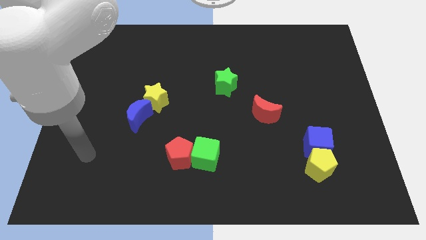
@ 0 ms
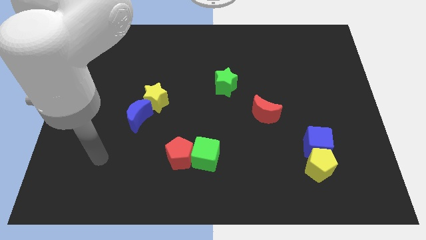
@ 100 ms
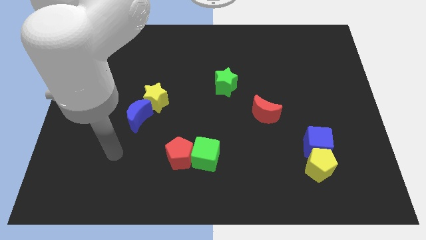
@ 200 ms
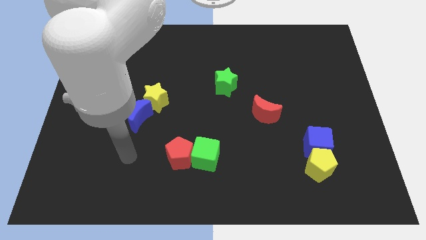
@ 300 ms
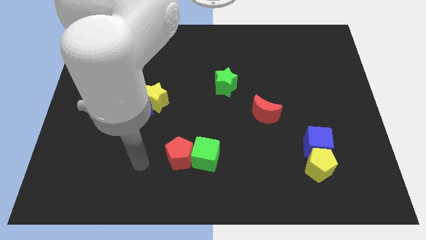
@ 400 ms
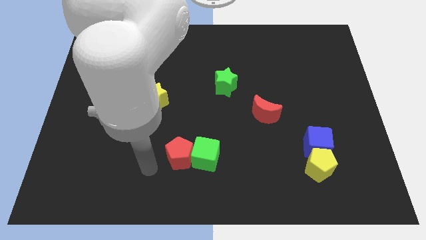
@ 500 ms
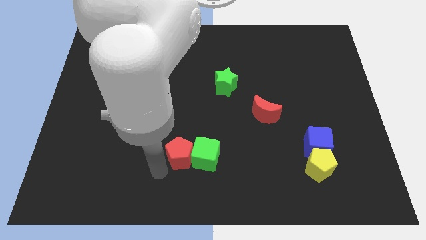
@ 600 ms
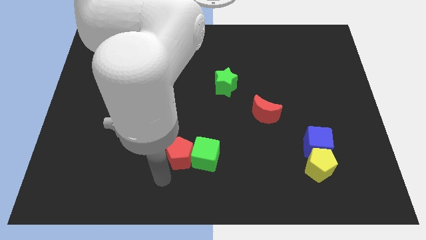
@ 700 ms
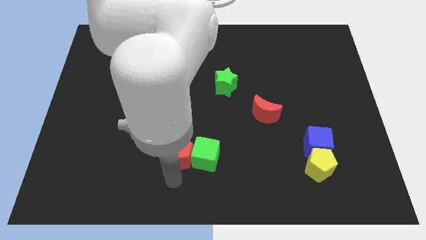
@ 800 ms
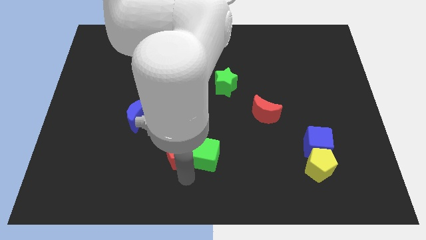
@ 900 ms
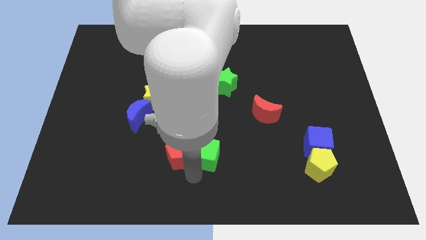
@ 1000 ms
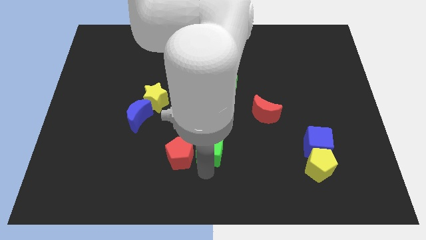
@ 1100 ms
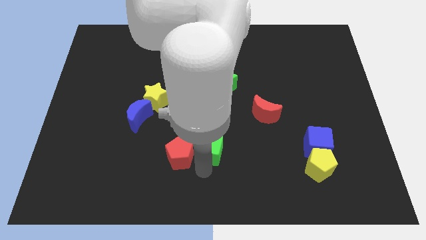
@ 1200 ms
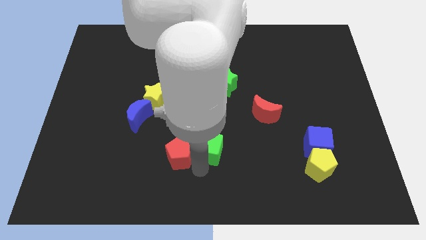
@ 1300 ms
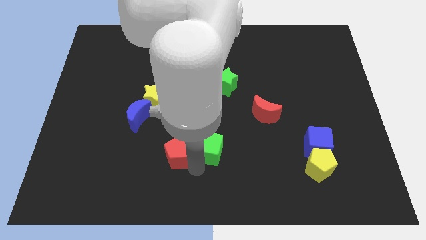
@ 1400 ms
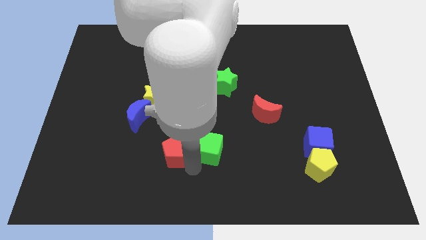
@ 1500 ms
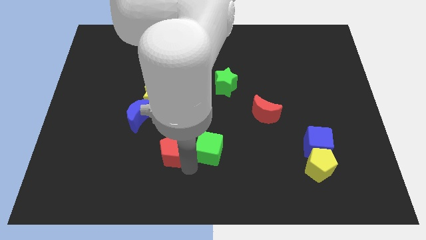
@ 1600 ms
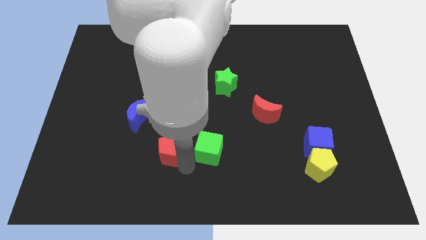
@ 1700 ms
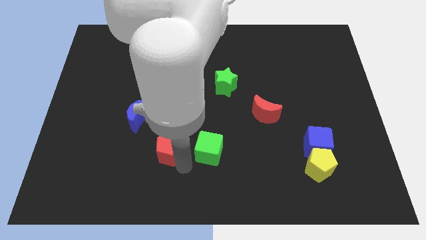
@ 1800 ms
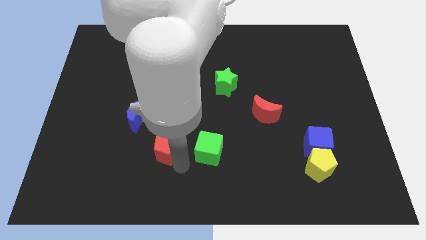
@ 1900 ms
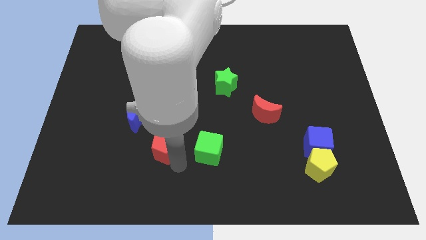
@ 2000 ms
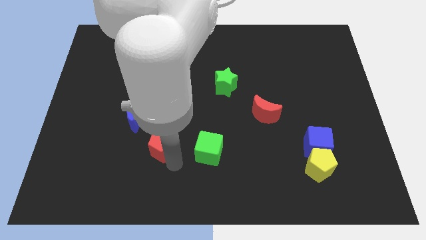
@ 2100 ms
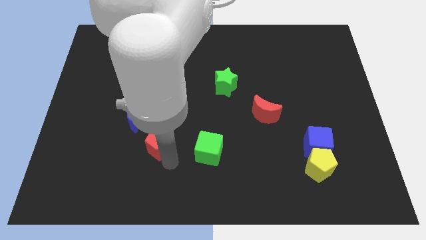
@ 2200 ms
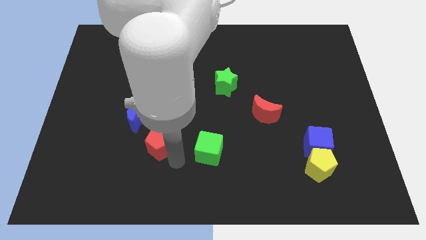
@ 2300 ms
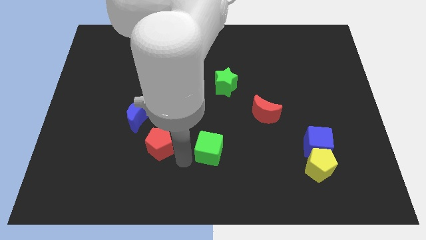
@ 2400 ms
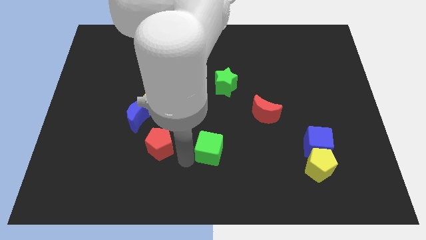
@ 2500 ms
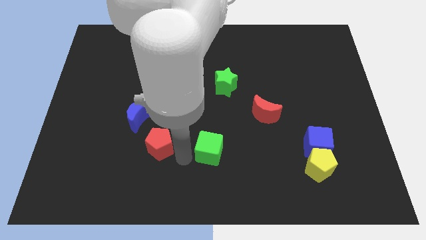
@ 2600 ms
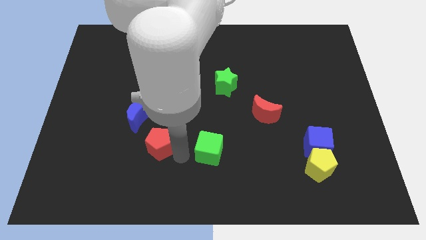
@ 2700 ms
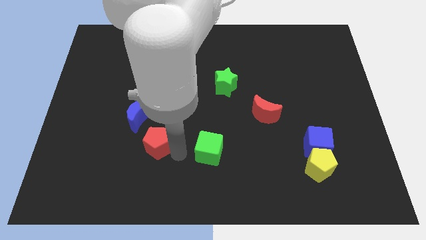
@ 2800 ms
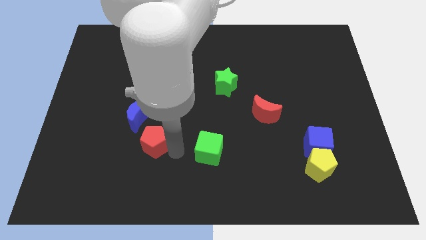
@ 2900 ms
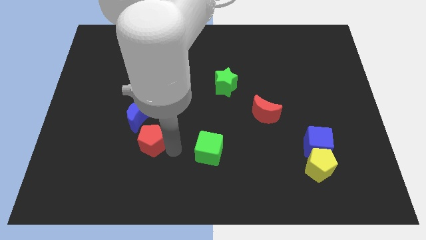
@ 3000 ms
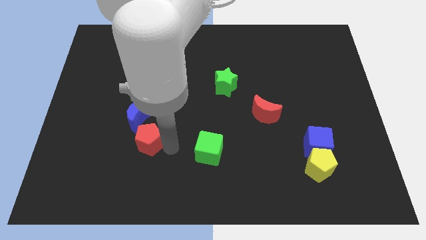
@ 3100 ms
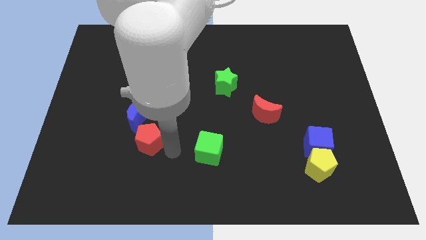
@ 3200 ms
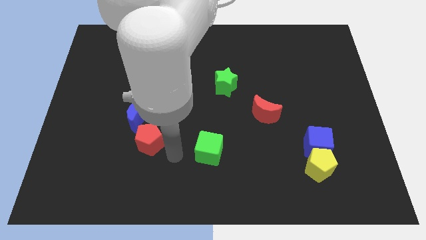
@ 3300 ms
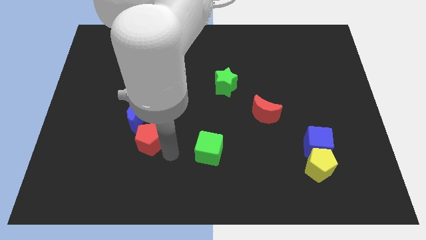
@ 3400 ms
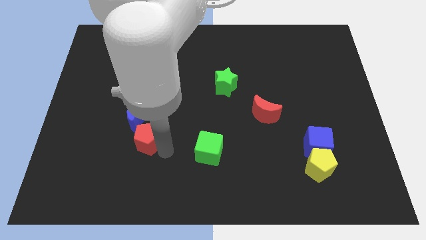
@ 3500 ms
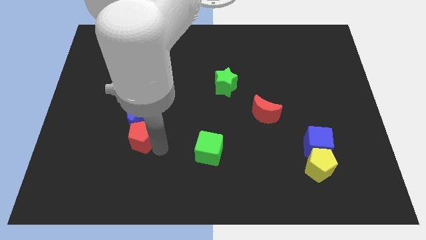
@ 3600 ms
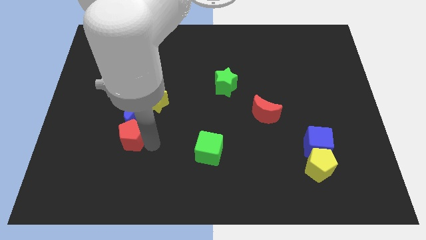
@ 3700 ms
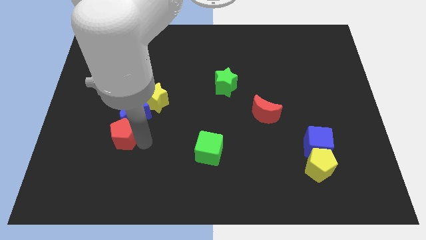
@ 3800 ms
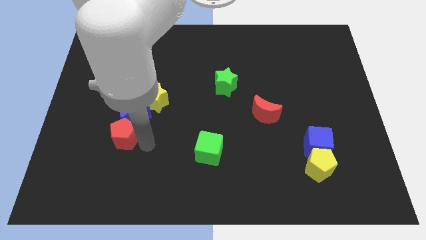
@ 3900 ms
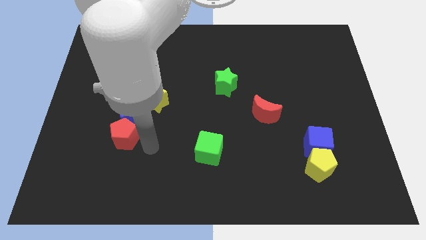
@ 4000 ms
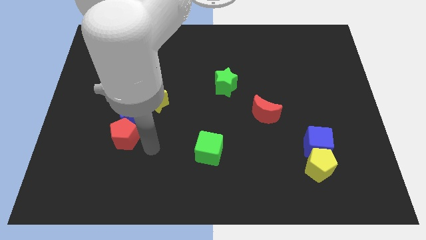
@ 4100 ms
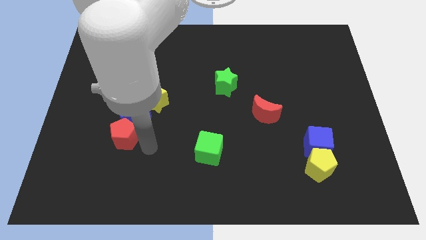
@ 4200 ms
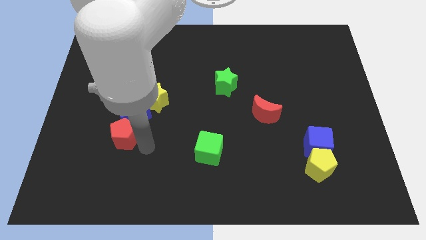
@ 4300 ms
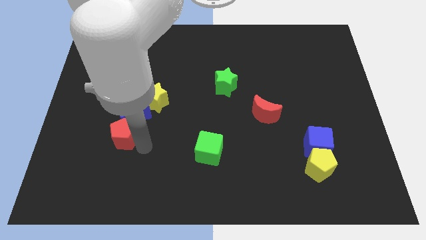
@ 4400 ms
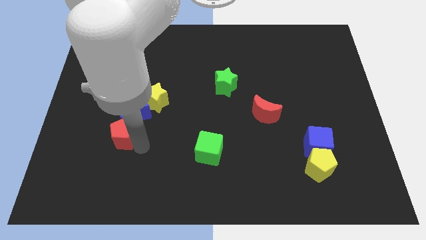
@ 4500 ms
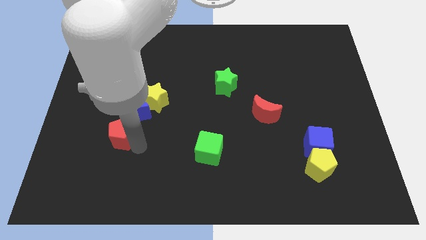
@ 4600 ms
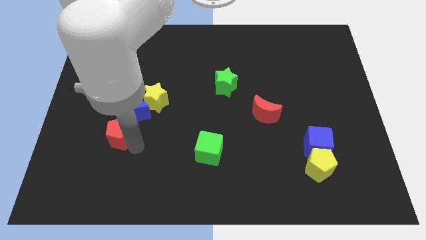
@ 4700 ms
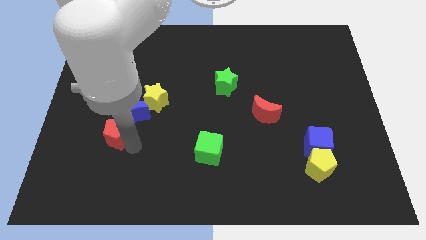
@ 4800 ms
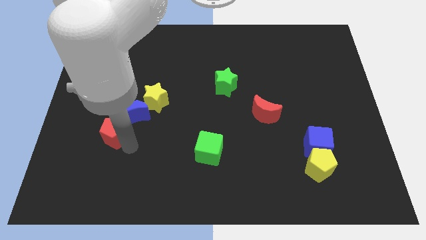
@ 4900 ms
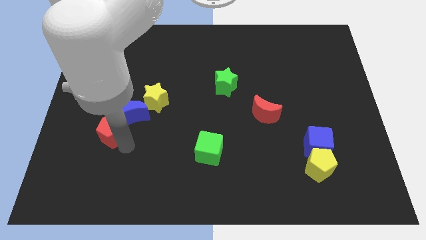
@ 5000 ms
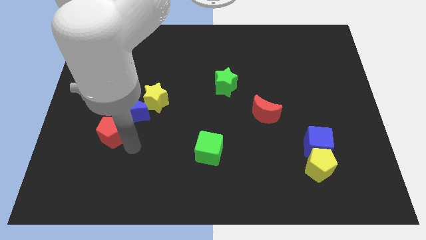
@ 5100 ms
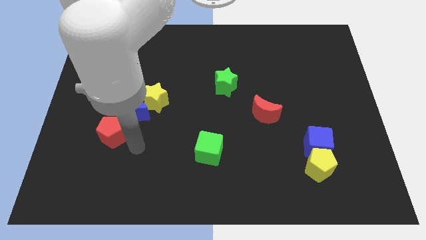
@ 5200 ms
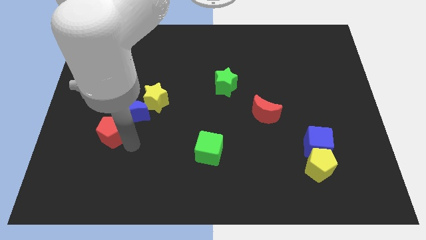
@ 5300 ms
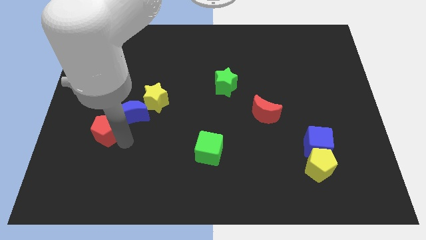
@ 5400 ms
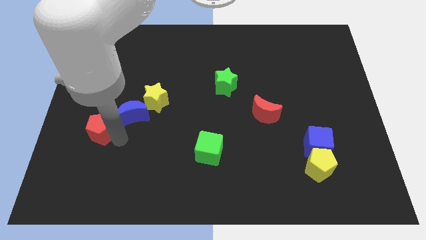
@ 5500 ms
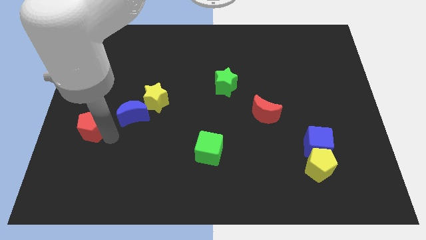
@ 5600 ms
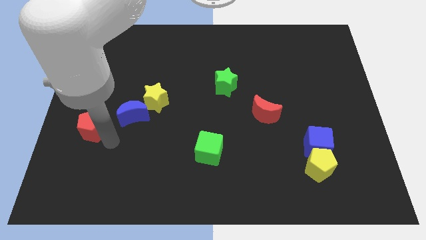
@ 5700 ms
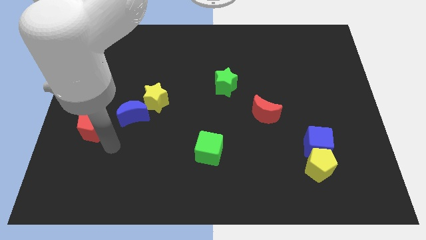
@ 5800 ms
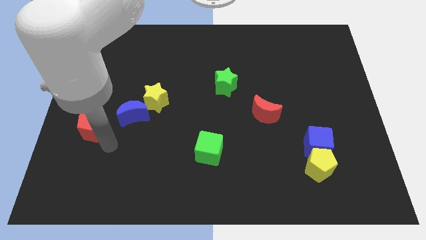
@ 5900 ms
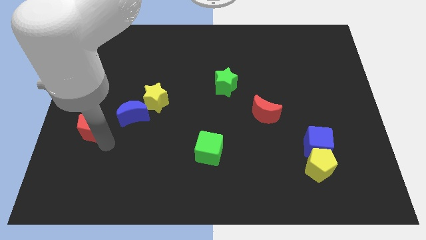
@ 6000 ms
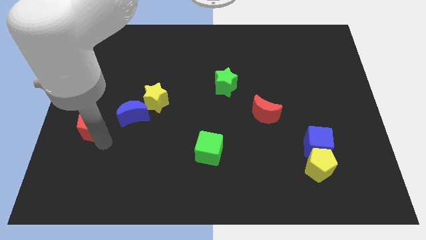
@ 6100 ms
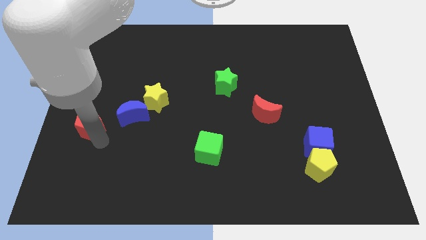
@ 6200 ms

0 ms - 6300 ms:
push the red pentagon to the left side
